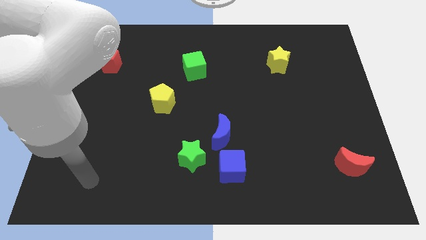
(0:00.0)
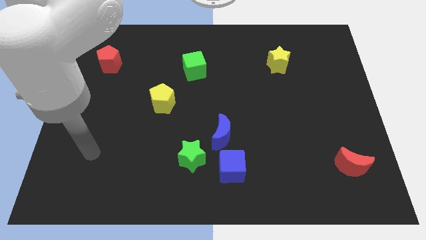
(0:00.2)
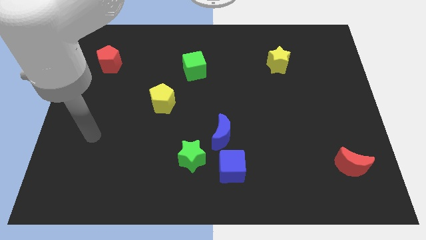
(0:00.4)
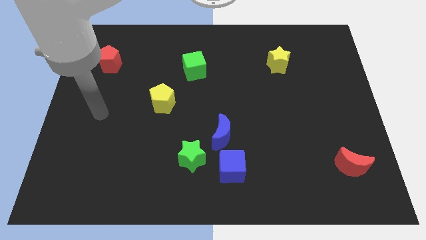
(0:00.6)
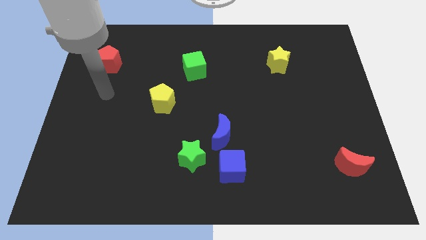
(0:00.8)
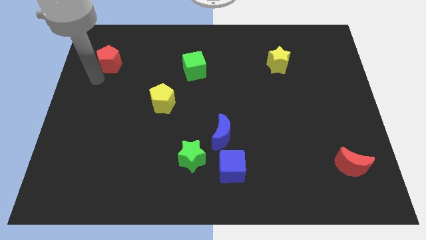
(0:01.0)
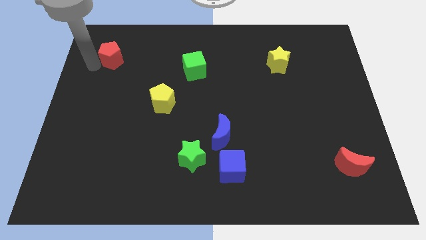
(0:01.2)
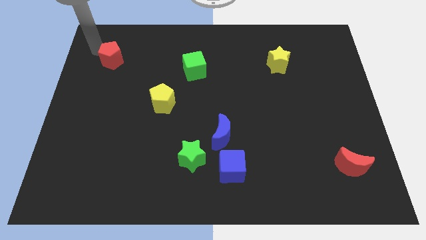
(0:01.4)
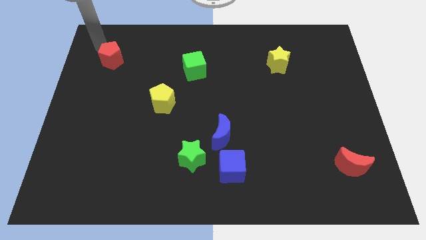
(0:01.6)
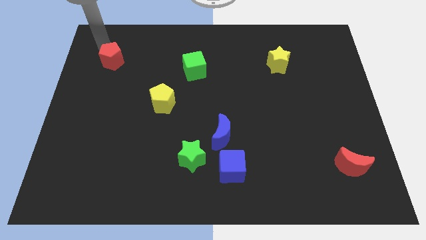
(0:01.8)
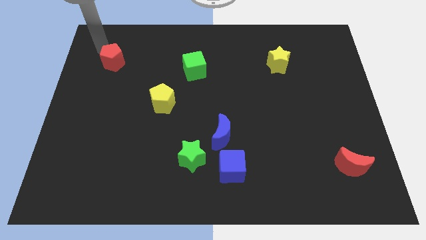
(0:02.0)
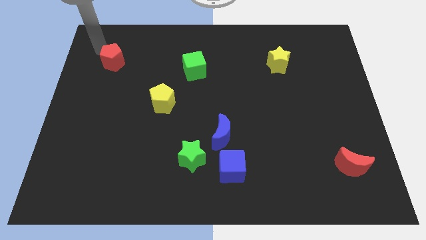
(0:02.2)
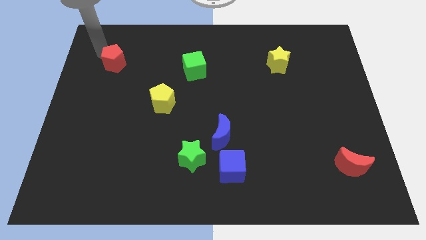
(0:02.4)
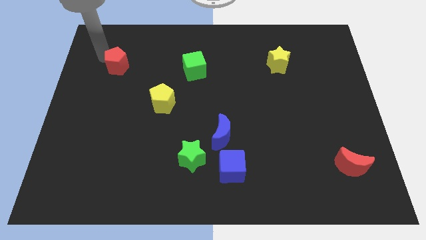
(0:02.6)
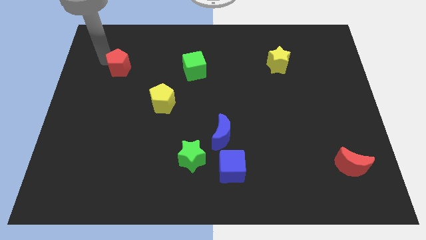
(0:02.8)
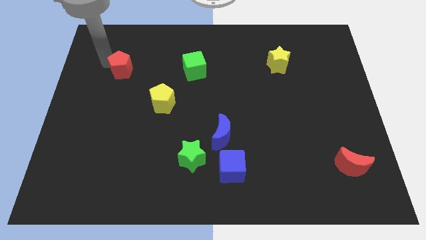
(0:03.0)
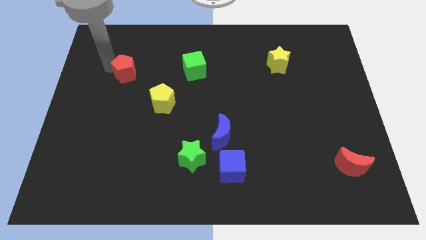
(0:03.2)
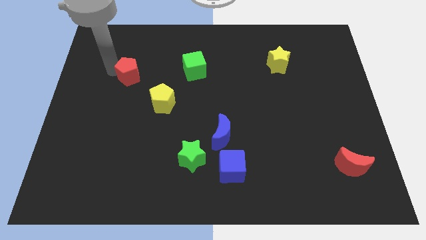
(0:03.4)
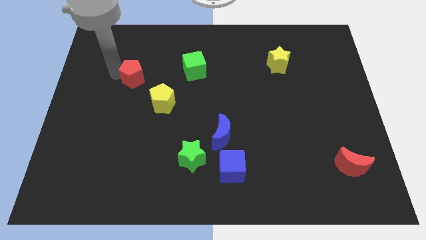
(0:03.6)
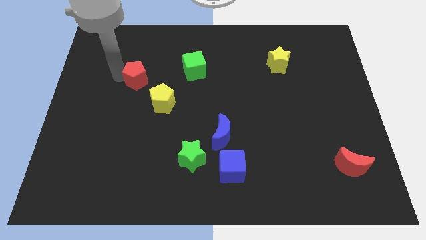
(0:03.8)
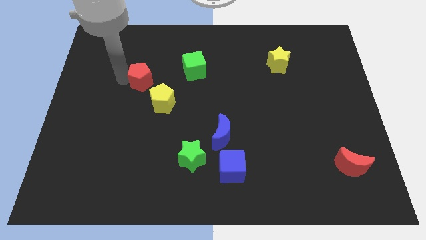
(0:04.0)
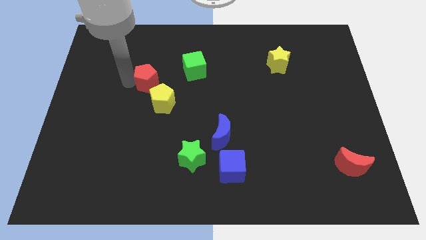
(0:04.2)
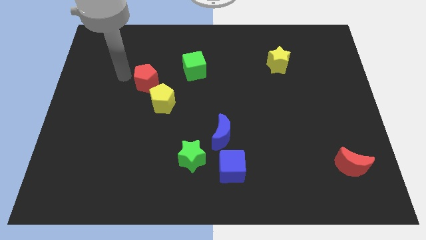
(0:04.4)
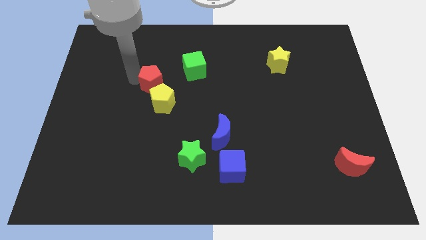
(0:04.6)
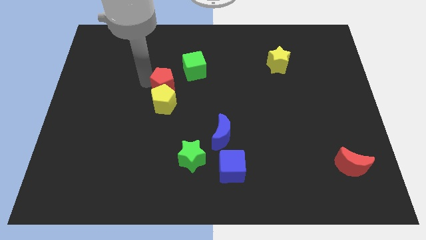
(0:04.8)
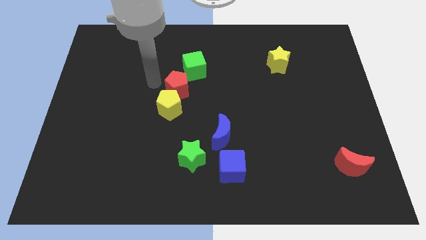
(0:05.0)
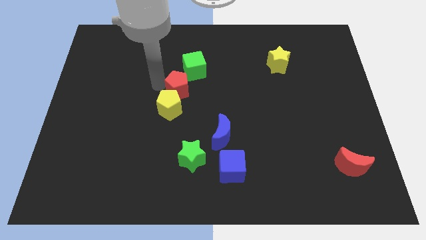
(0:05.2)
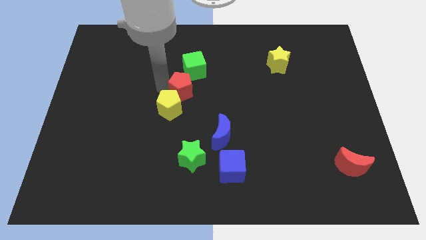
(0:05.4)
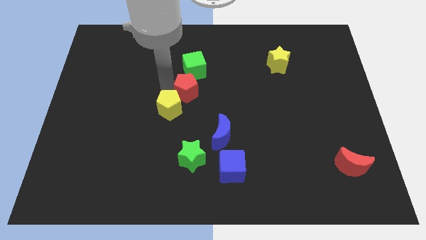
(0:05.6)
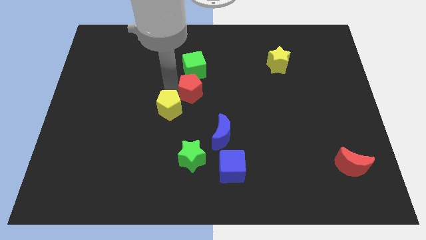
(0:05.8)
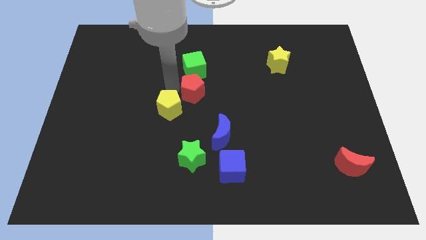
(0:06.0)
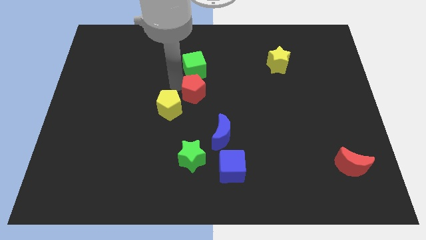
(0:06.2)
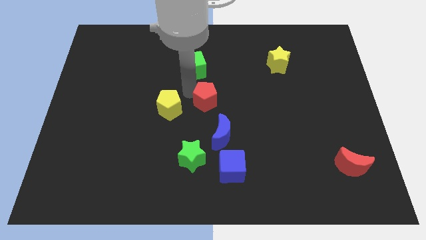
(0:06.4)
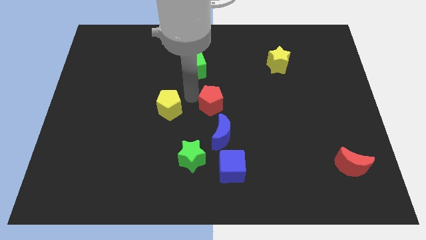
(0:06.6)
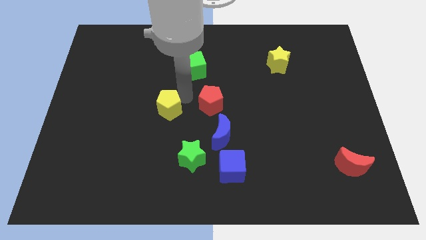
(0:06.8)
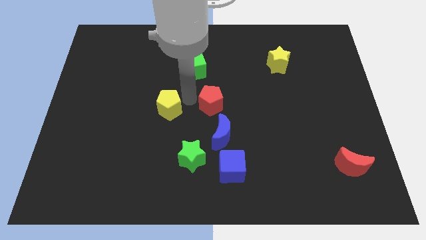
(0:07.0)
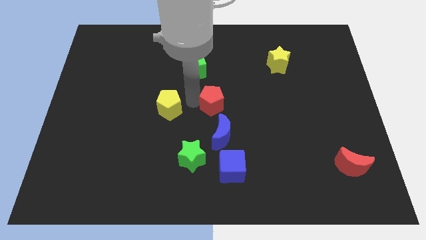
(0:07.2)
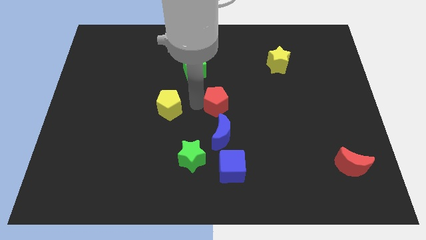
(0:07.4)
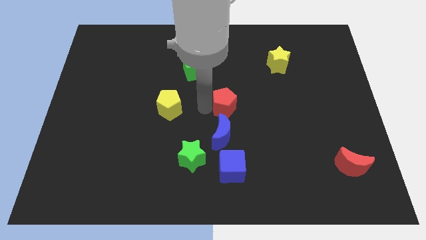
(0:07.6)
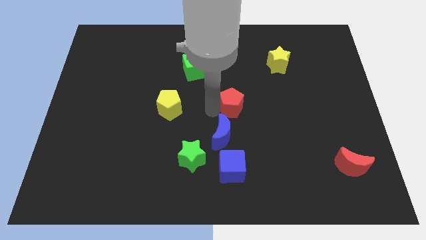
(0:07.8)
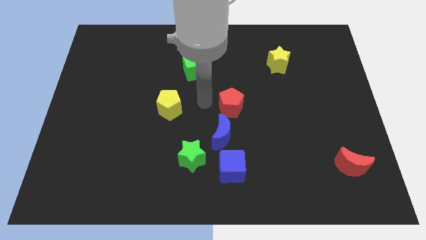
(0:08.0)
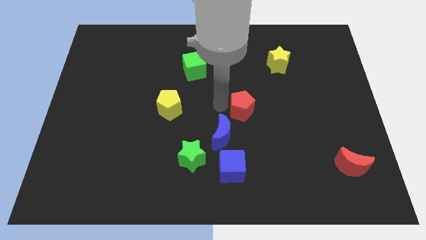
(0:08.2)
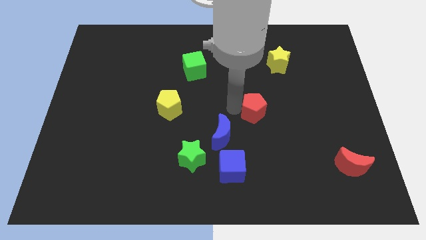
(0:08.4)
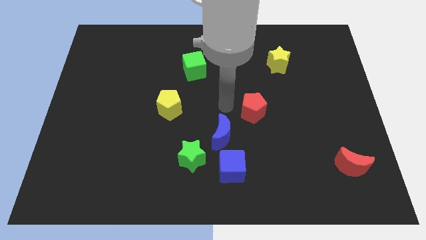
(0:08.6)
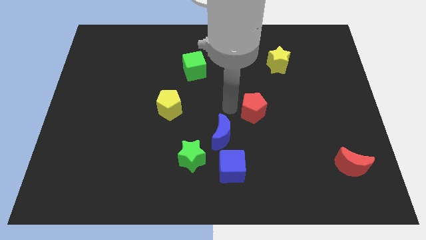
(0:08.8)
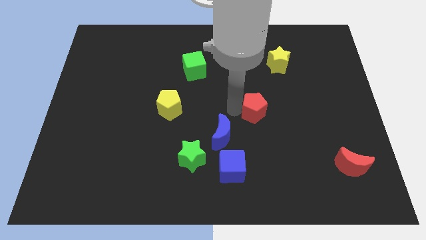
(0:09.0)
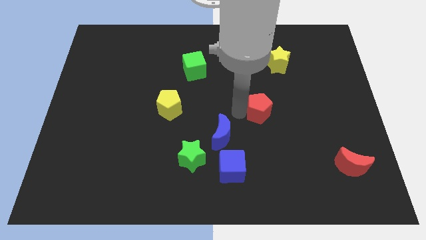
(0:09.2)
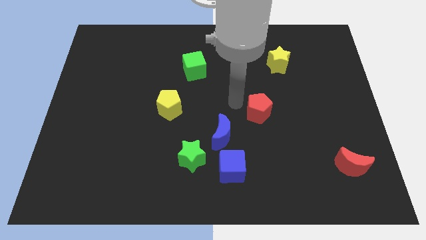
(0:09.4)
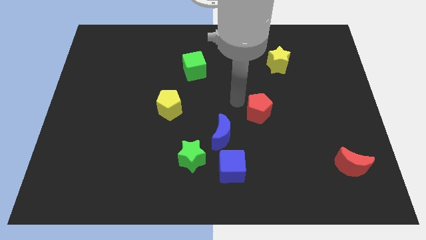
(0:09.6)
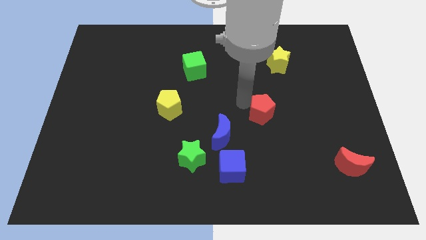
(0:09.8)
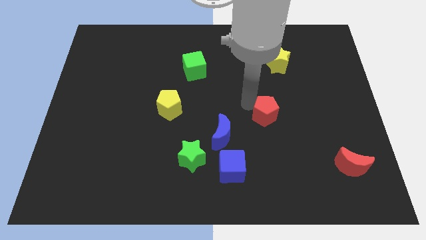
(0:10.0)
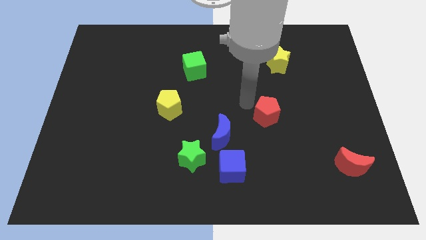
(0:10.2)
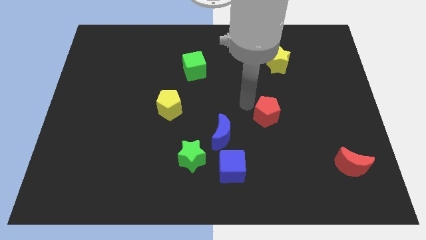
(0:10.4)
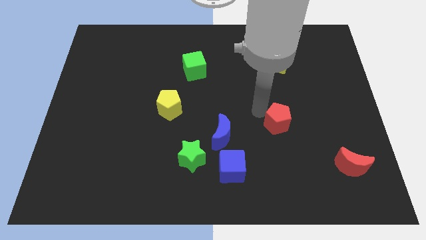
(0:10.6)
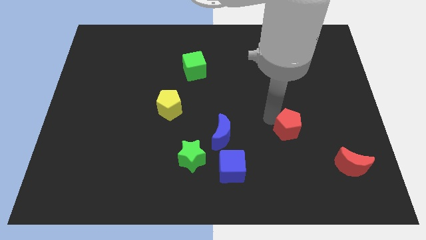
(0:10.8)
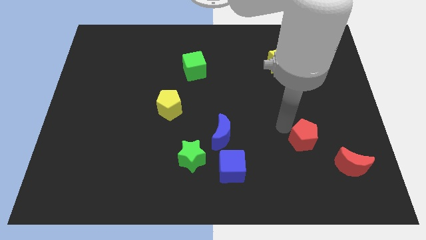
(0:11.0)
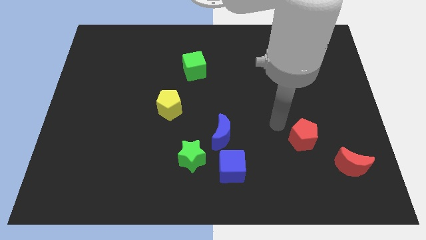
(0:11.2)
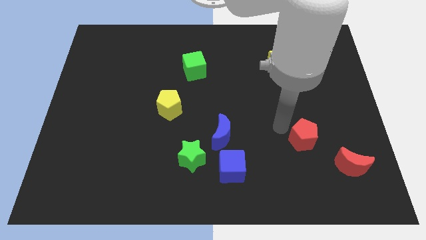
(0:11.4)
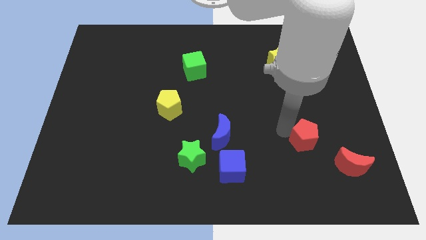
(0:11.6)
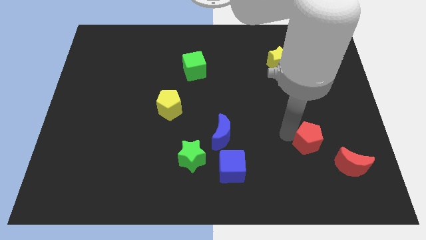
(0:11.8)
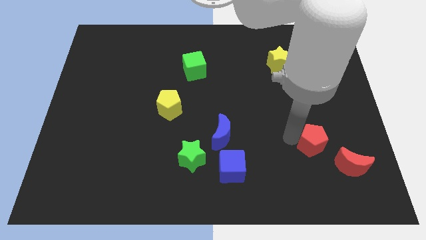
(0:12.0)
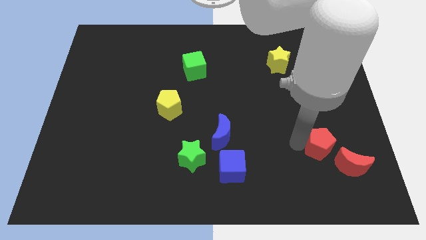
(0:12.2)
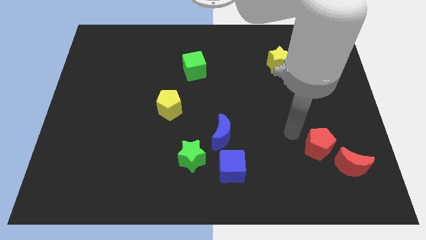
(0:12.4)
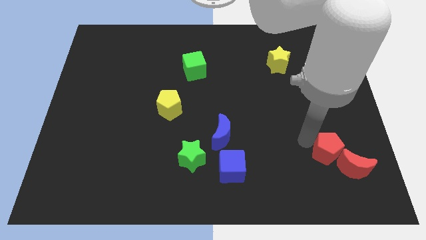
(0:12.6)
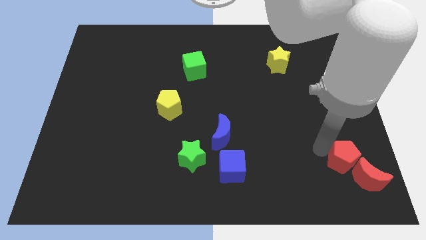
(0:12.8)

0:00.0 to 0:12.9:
put the red pentagon next to the red moon

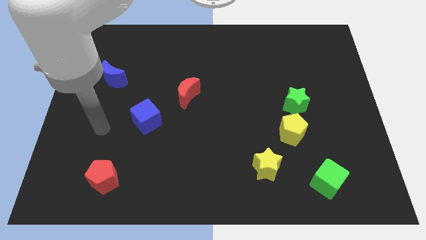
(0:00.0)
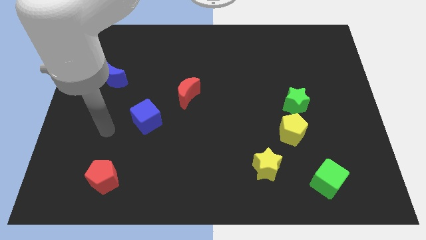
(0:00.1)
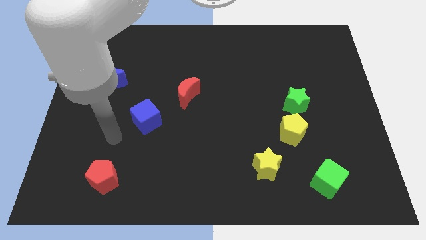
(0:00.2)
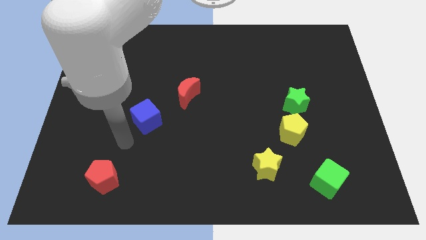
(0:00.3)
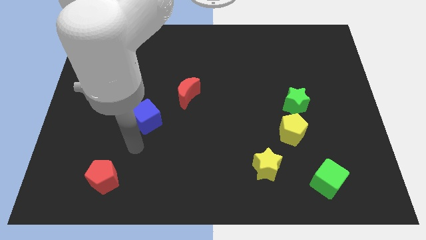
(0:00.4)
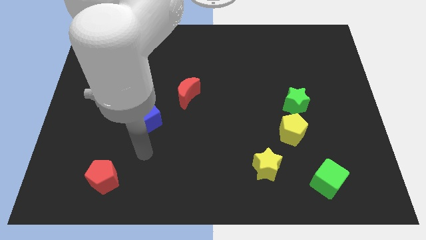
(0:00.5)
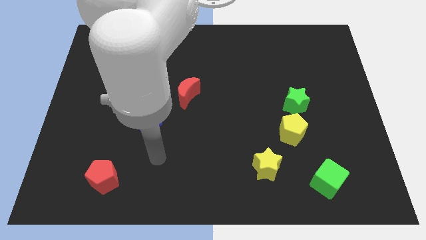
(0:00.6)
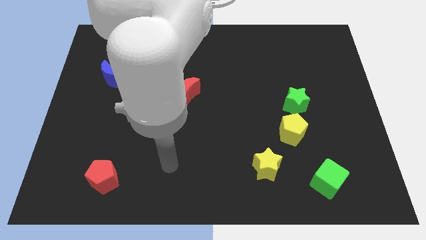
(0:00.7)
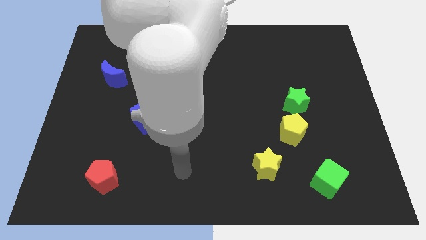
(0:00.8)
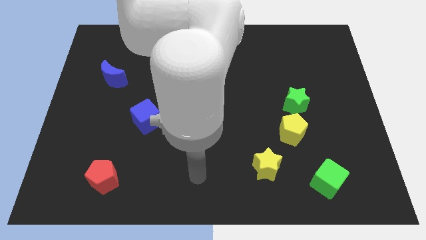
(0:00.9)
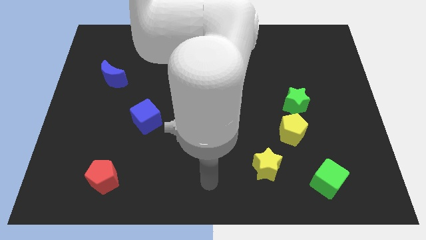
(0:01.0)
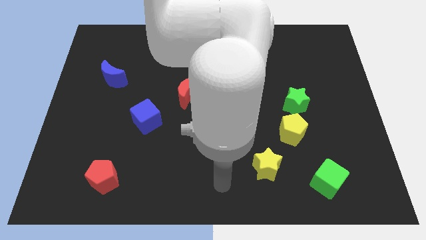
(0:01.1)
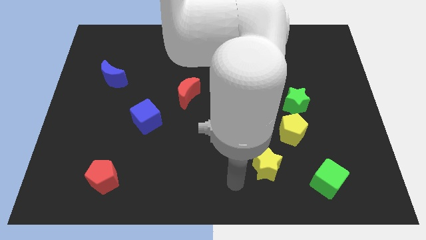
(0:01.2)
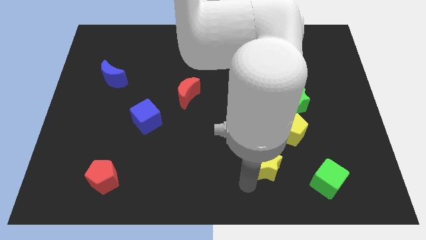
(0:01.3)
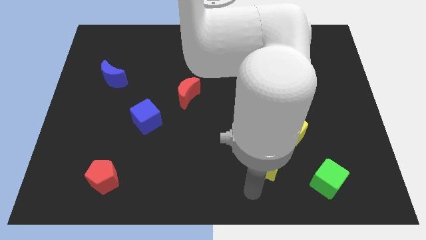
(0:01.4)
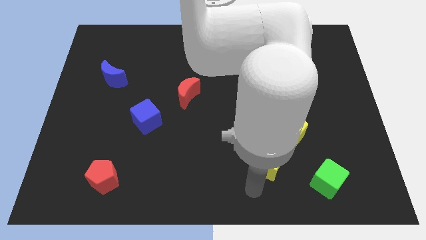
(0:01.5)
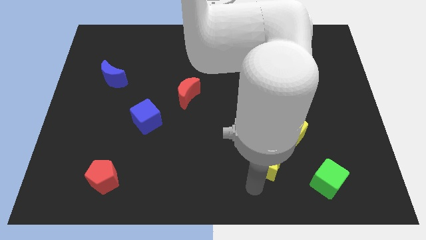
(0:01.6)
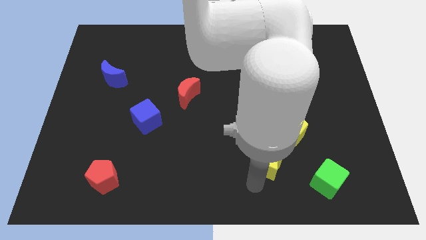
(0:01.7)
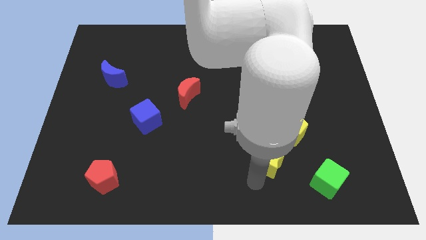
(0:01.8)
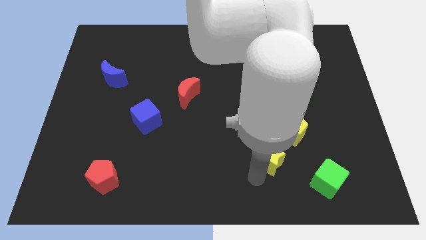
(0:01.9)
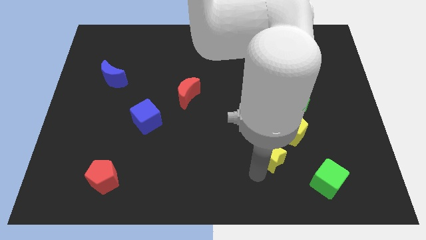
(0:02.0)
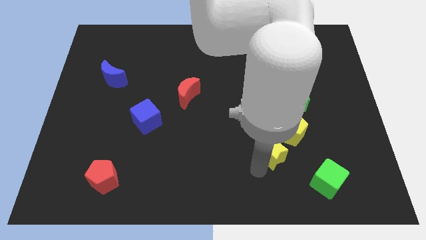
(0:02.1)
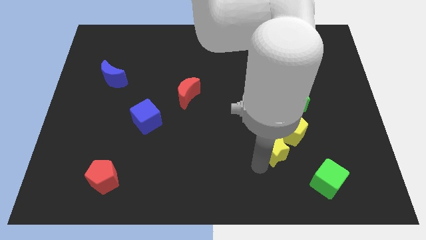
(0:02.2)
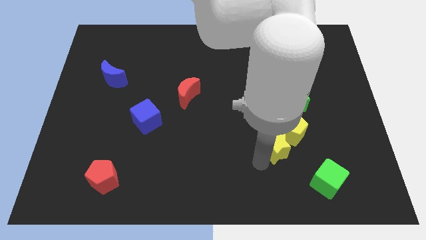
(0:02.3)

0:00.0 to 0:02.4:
move the yellow star next to the yellow pentagon
